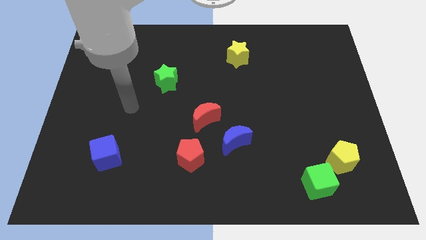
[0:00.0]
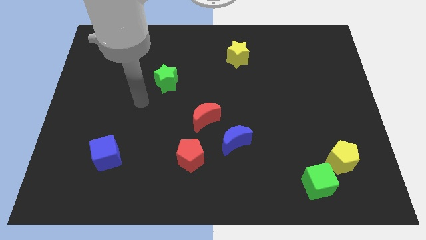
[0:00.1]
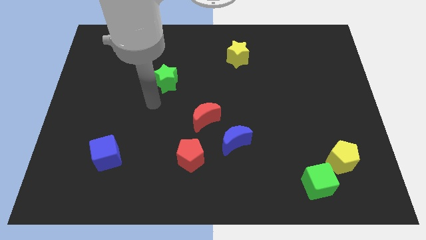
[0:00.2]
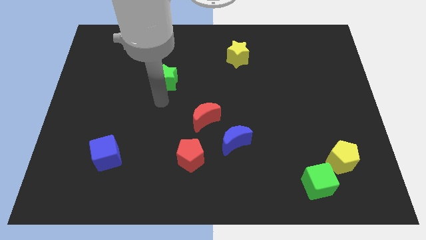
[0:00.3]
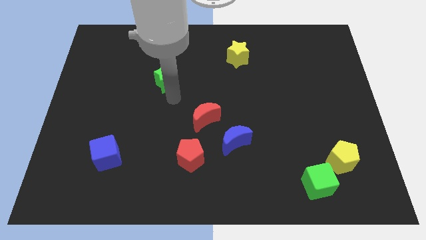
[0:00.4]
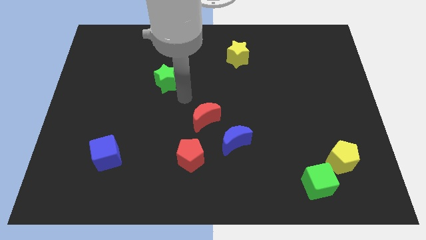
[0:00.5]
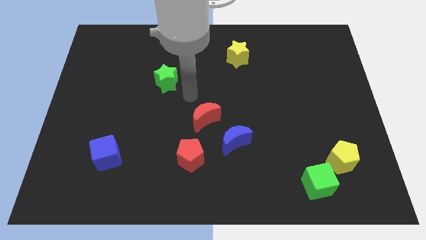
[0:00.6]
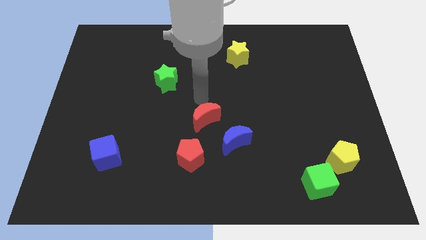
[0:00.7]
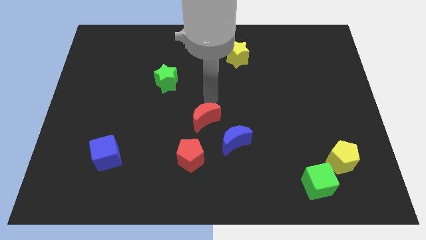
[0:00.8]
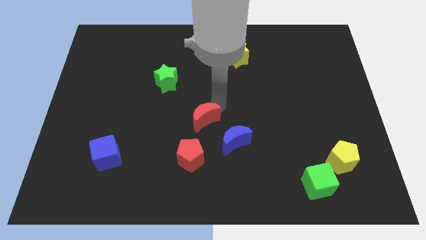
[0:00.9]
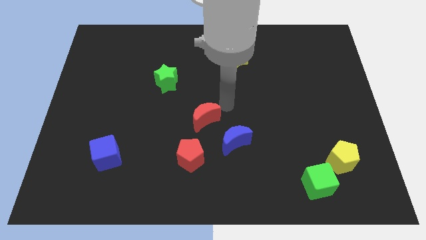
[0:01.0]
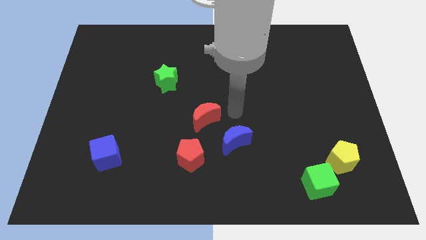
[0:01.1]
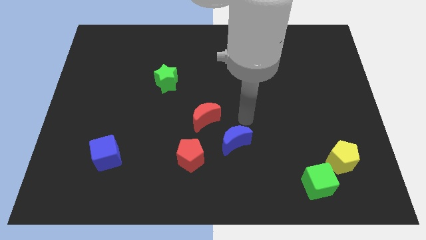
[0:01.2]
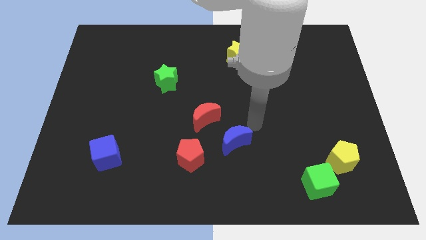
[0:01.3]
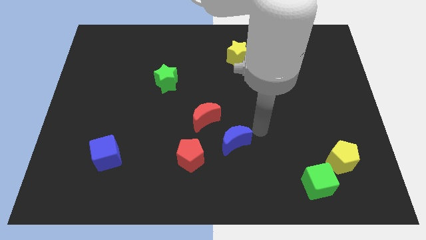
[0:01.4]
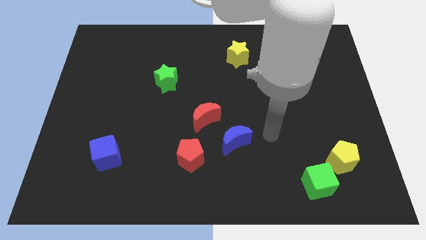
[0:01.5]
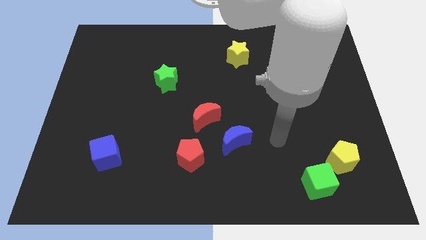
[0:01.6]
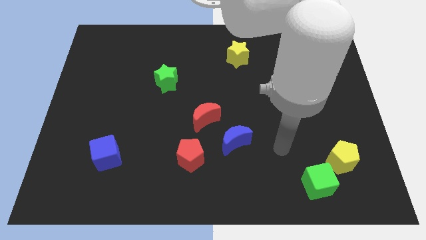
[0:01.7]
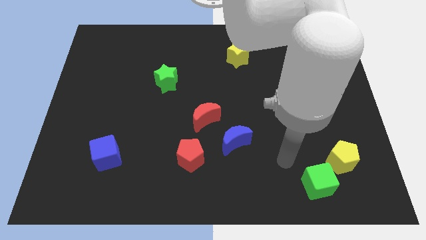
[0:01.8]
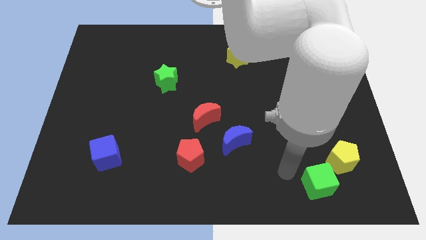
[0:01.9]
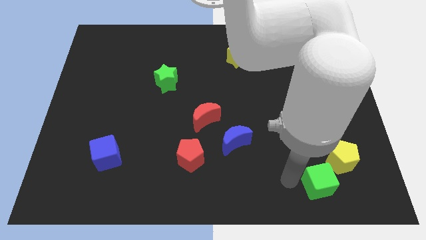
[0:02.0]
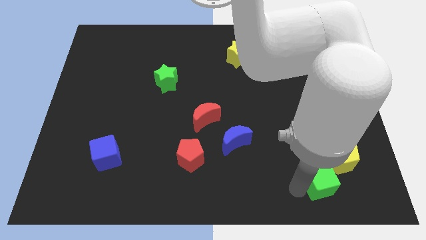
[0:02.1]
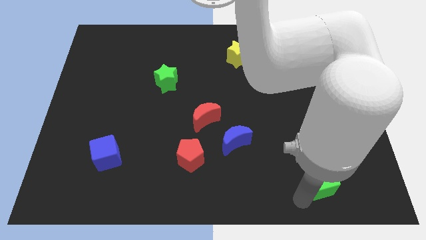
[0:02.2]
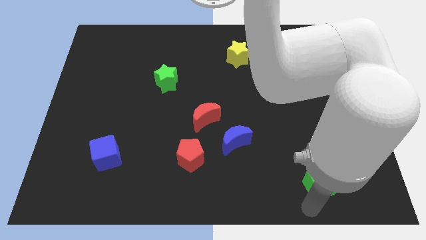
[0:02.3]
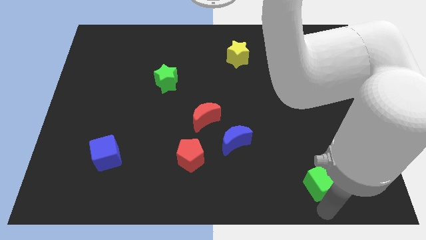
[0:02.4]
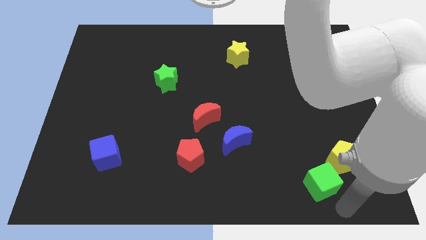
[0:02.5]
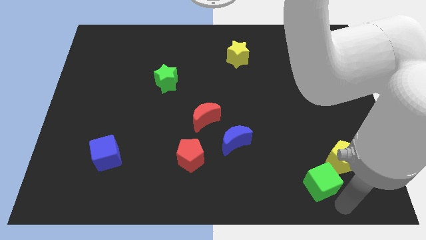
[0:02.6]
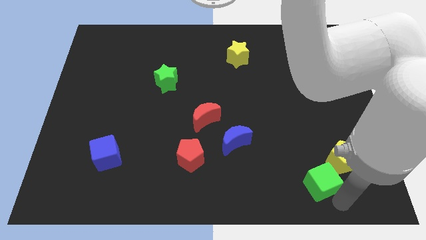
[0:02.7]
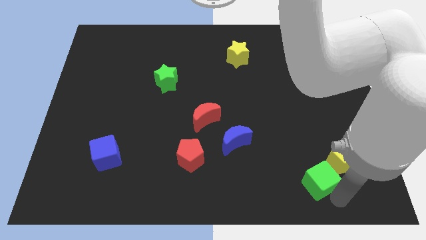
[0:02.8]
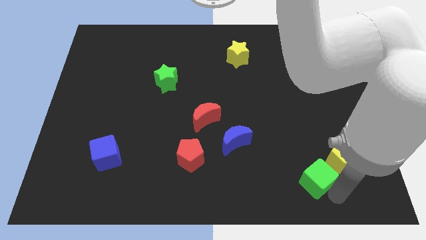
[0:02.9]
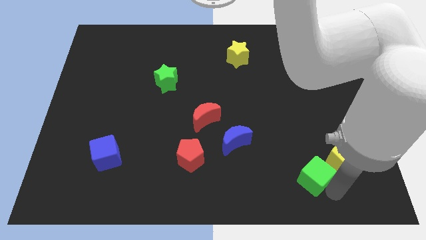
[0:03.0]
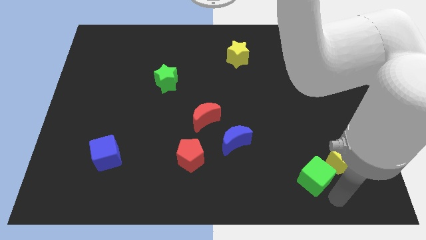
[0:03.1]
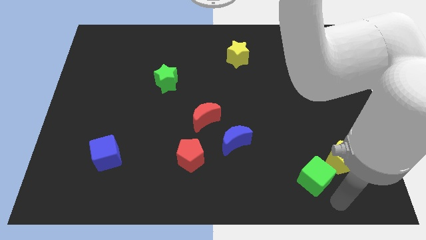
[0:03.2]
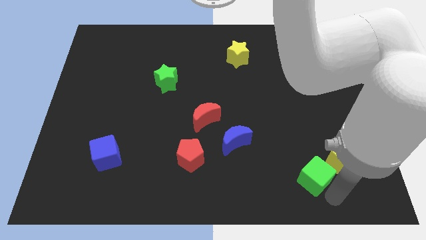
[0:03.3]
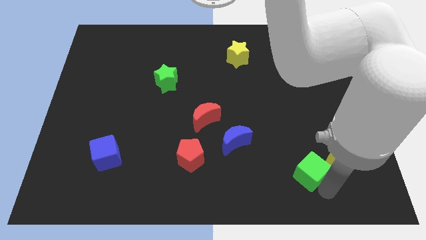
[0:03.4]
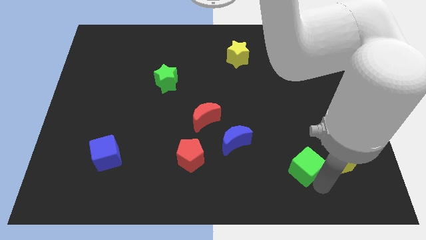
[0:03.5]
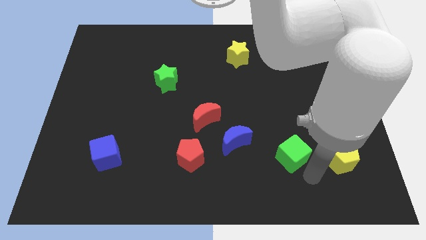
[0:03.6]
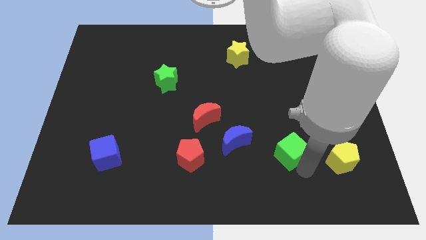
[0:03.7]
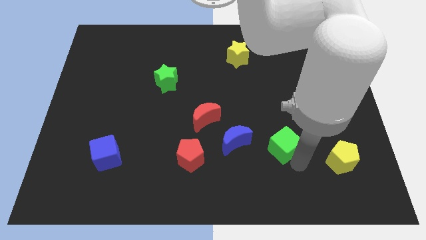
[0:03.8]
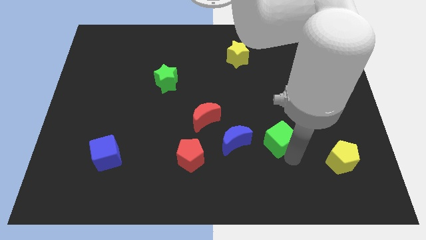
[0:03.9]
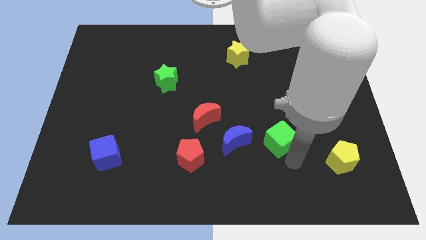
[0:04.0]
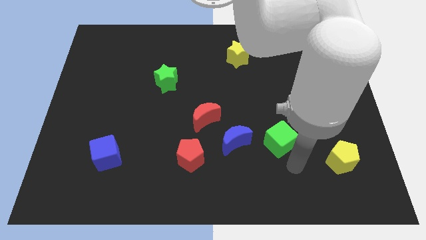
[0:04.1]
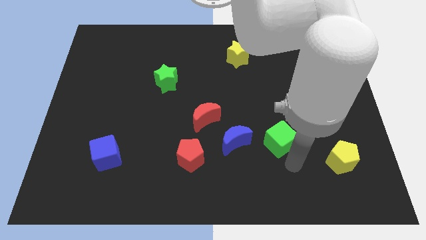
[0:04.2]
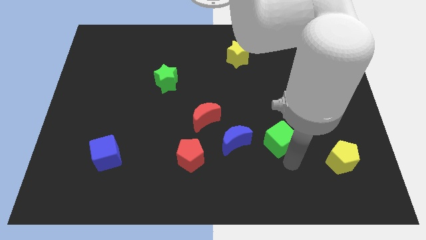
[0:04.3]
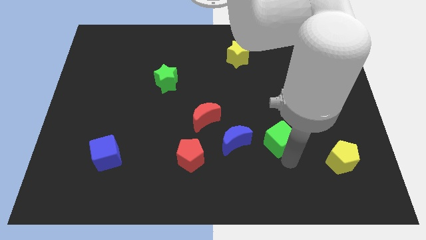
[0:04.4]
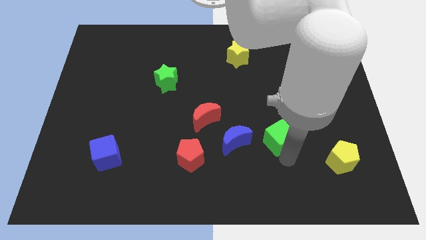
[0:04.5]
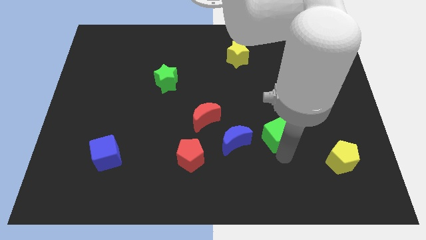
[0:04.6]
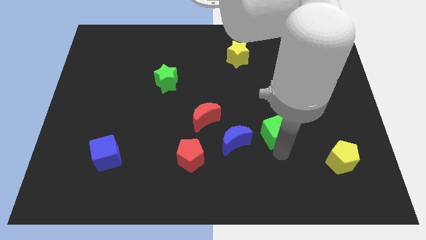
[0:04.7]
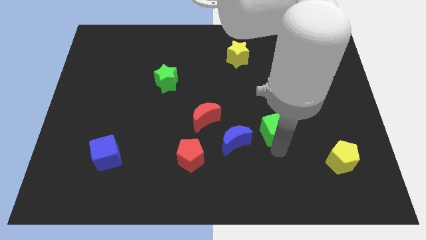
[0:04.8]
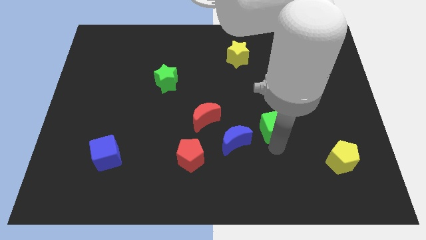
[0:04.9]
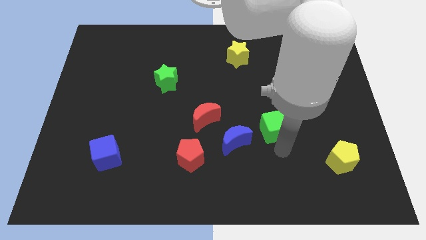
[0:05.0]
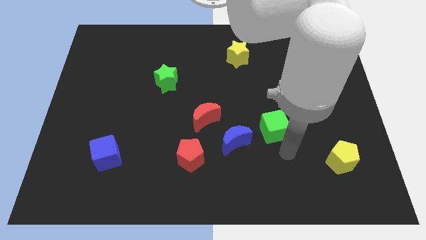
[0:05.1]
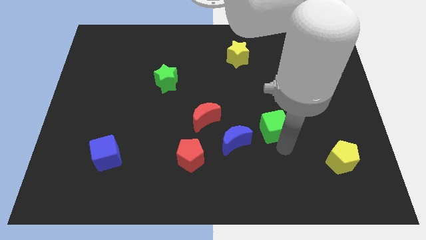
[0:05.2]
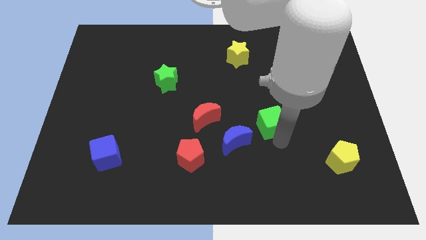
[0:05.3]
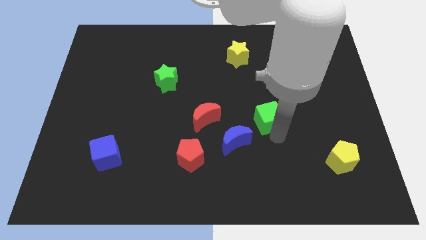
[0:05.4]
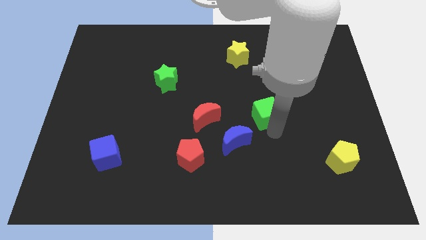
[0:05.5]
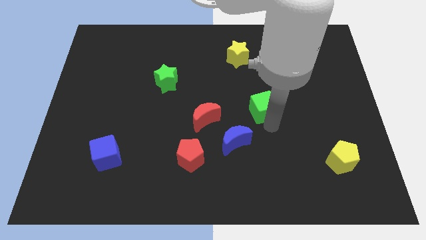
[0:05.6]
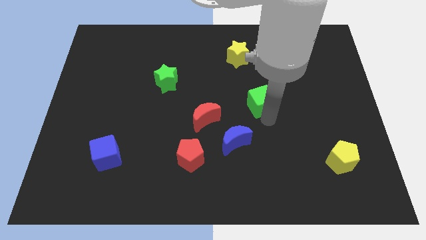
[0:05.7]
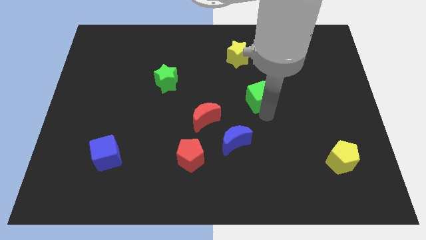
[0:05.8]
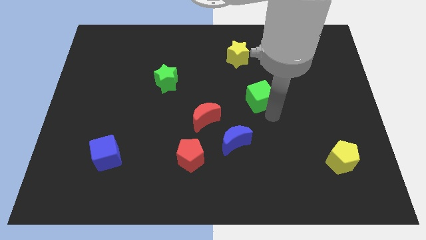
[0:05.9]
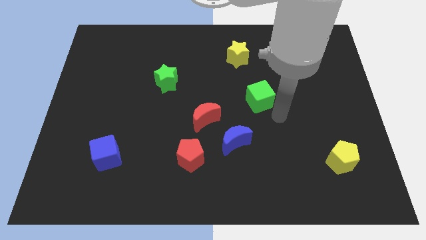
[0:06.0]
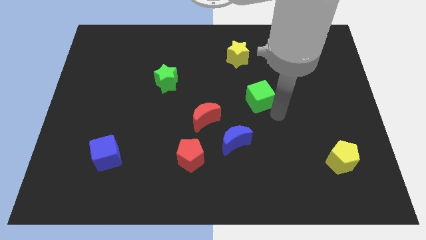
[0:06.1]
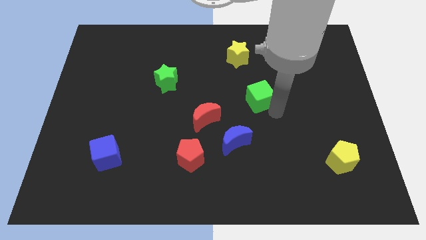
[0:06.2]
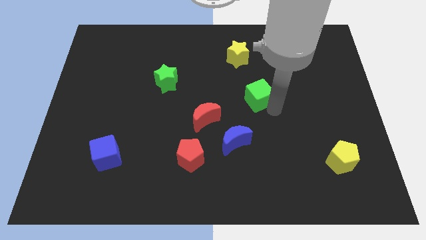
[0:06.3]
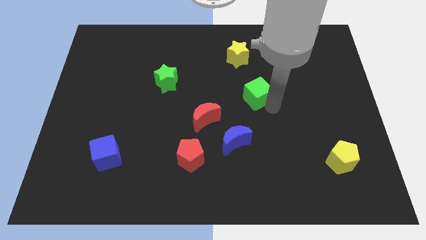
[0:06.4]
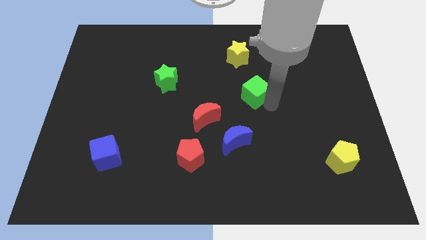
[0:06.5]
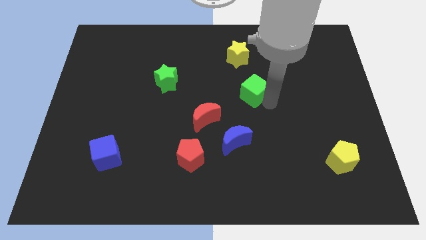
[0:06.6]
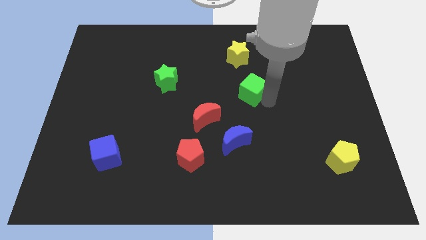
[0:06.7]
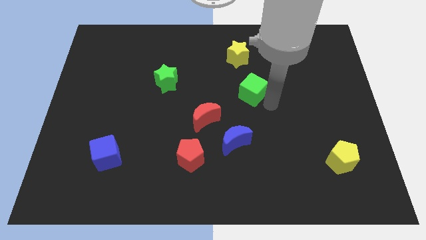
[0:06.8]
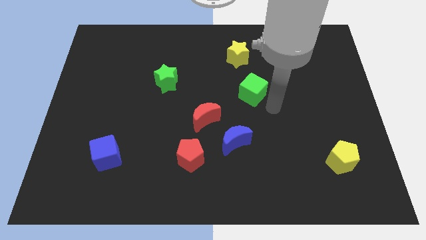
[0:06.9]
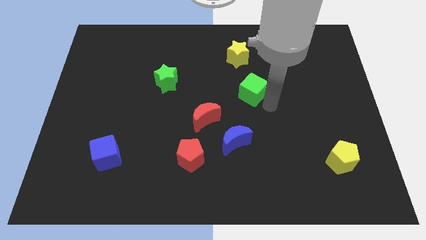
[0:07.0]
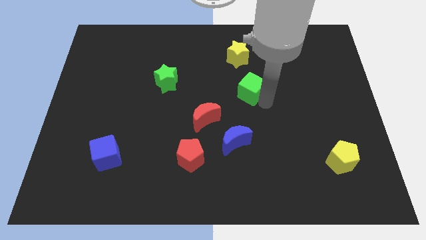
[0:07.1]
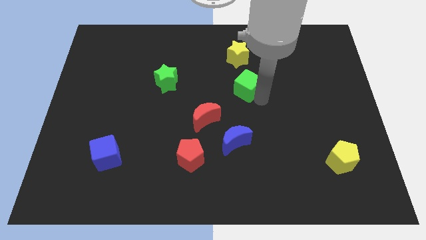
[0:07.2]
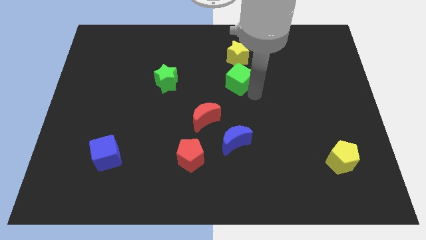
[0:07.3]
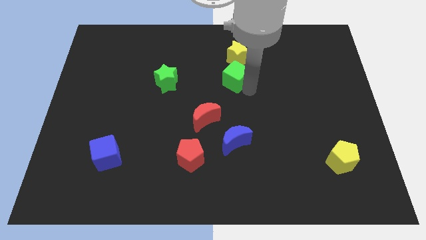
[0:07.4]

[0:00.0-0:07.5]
slide the green cube to the bottom left side of the yellow star
